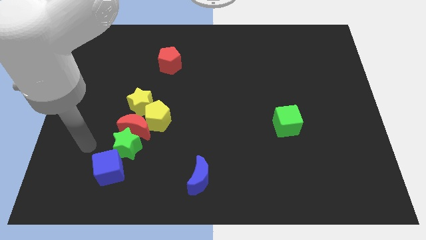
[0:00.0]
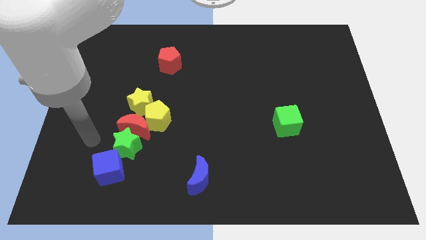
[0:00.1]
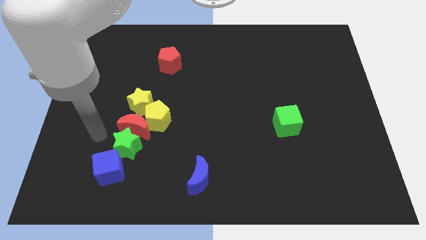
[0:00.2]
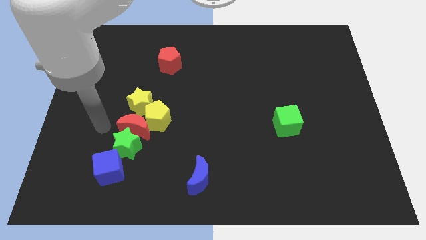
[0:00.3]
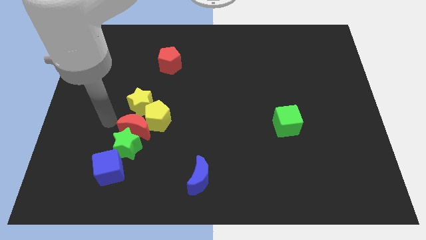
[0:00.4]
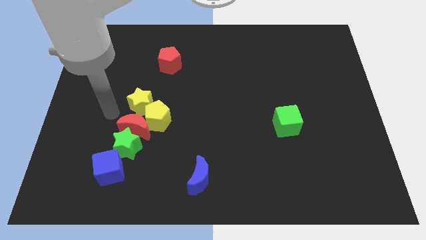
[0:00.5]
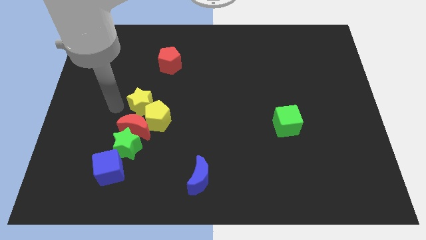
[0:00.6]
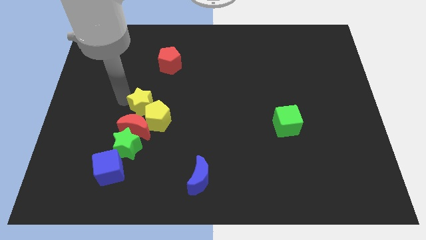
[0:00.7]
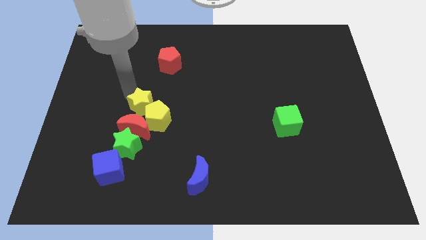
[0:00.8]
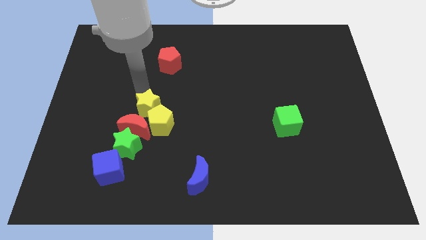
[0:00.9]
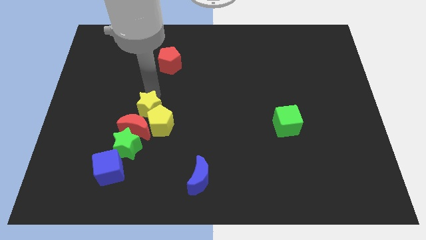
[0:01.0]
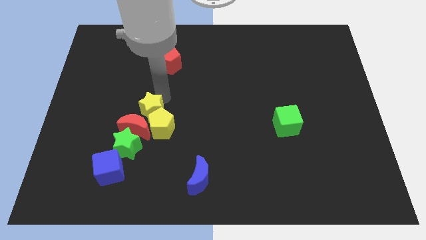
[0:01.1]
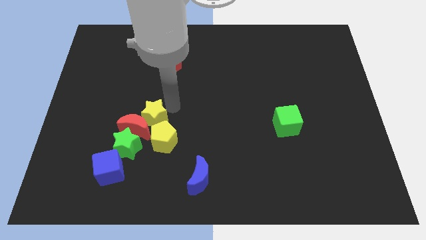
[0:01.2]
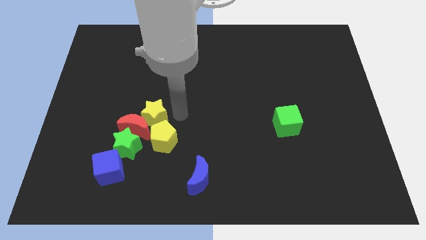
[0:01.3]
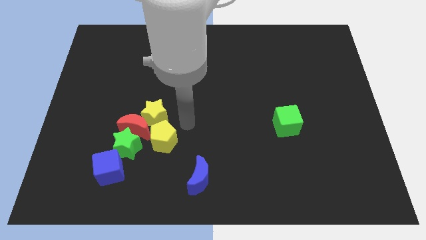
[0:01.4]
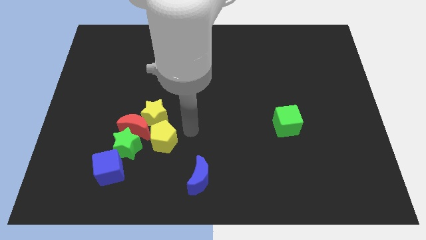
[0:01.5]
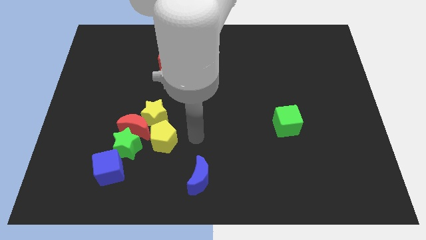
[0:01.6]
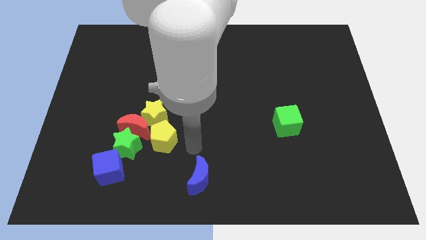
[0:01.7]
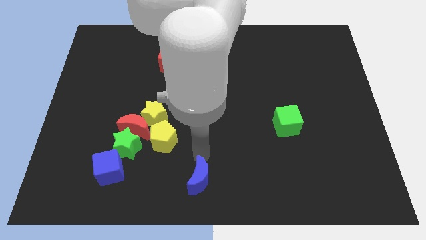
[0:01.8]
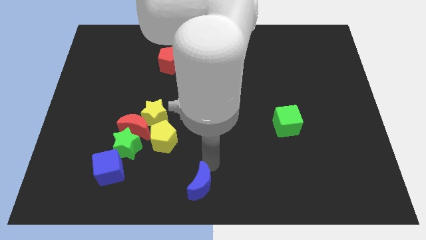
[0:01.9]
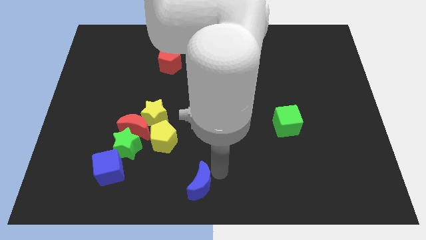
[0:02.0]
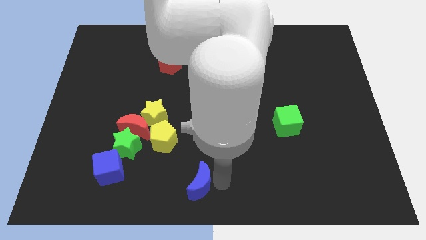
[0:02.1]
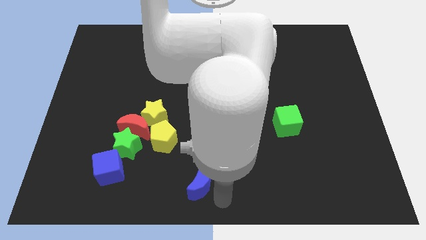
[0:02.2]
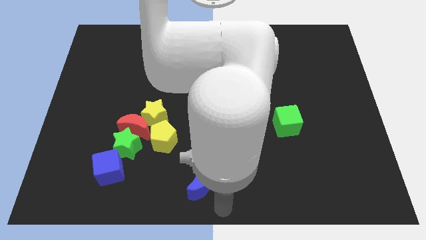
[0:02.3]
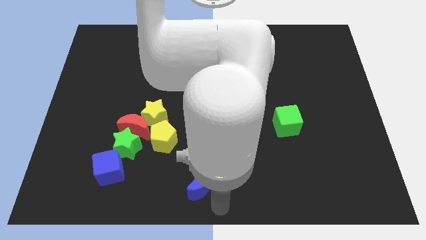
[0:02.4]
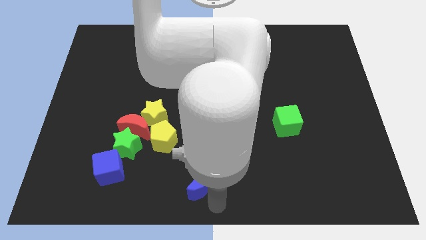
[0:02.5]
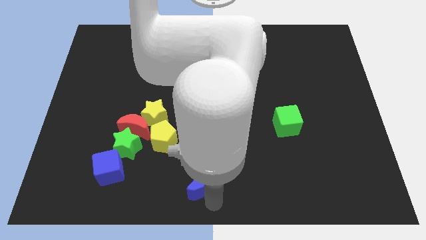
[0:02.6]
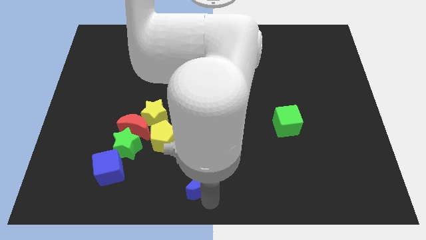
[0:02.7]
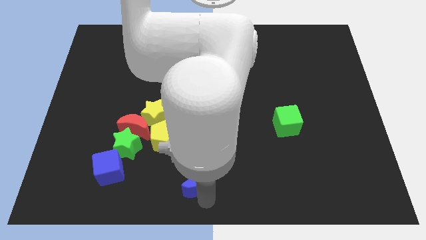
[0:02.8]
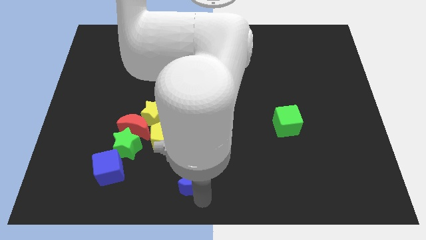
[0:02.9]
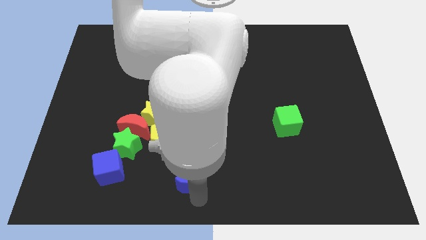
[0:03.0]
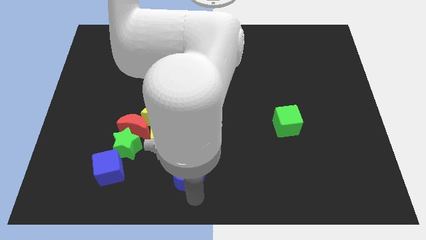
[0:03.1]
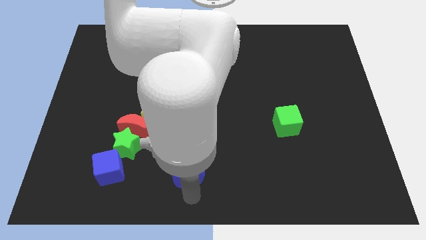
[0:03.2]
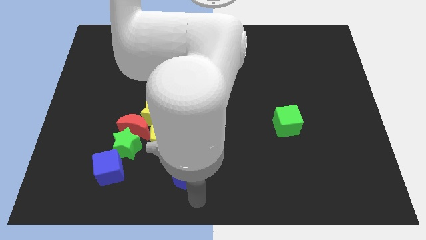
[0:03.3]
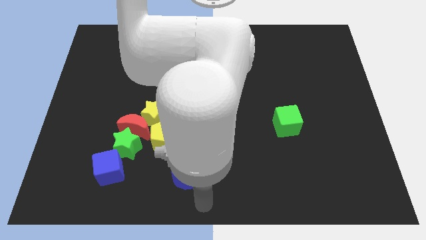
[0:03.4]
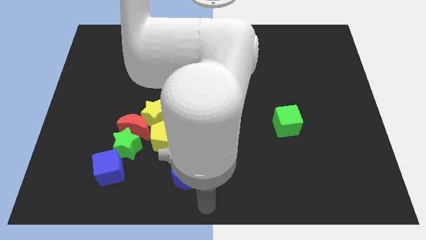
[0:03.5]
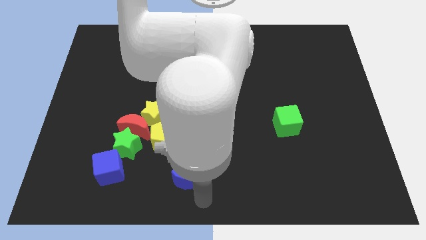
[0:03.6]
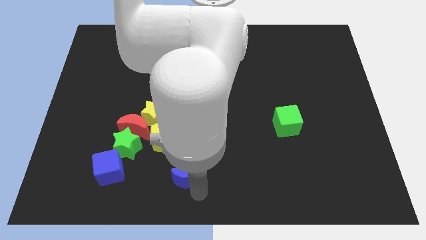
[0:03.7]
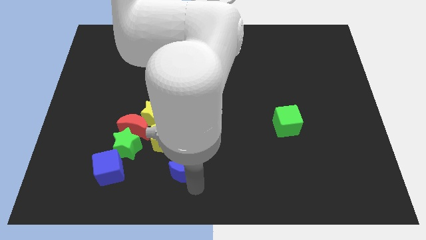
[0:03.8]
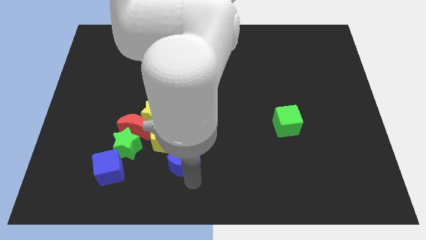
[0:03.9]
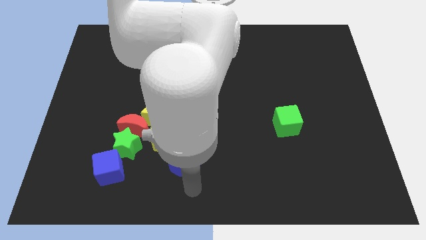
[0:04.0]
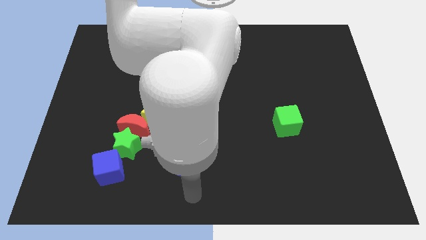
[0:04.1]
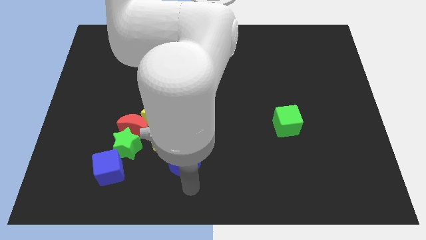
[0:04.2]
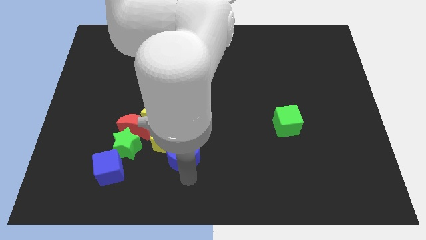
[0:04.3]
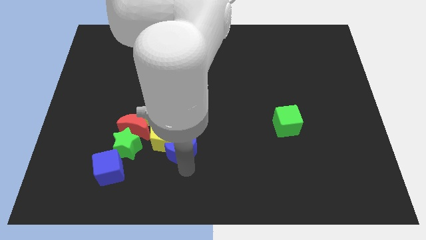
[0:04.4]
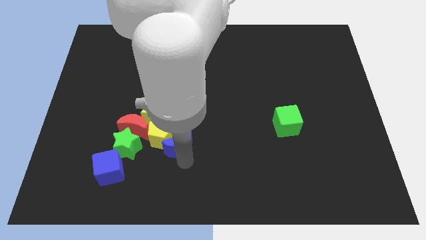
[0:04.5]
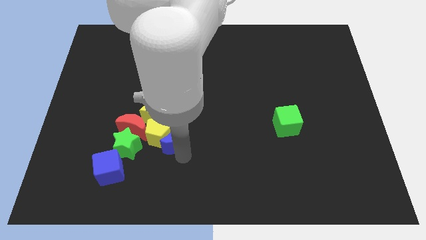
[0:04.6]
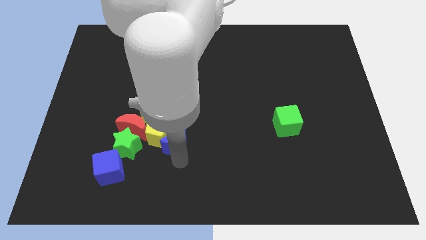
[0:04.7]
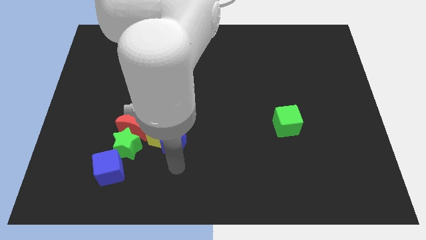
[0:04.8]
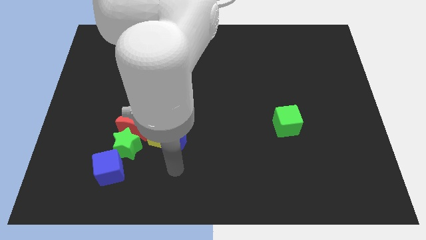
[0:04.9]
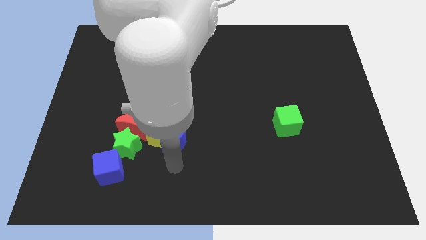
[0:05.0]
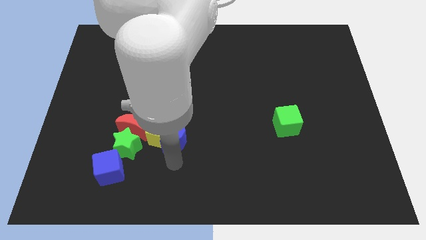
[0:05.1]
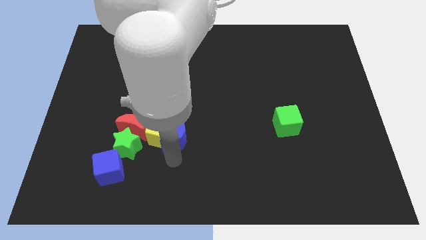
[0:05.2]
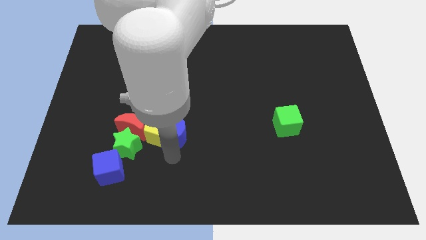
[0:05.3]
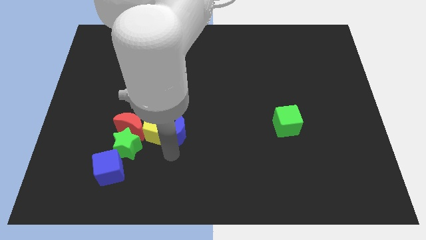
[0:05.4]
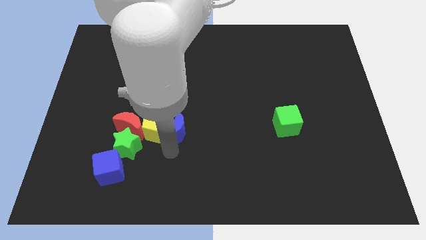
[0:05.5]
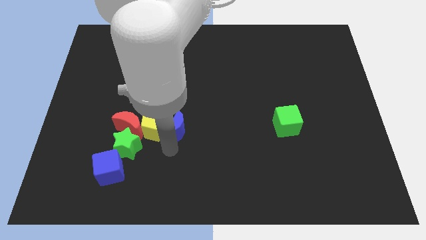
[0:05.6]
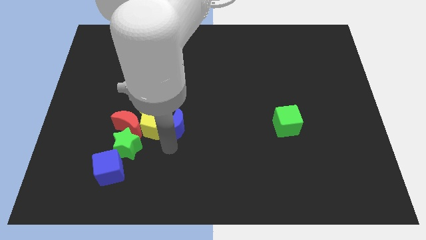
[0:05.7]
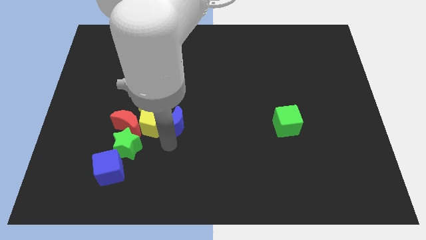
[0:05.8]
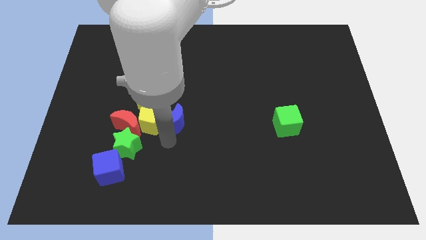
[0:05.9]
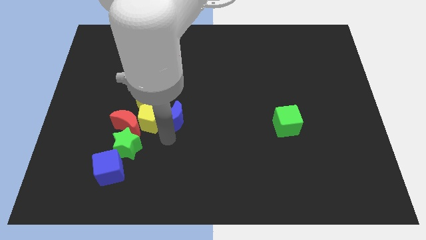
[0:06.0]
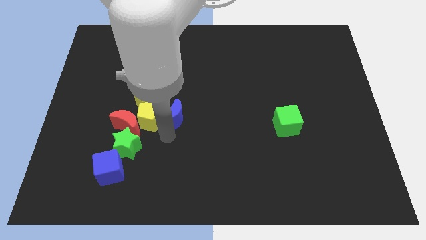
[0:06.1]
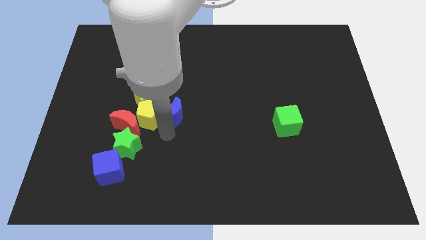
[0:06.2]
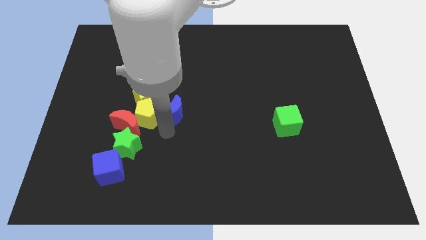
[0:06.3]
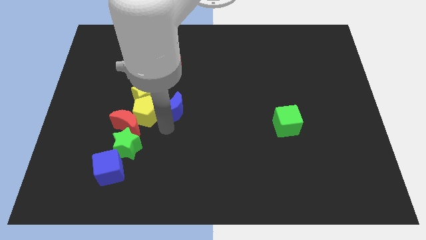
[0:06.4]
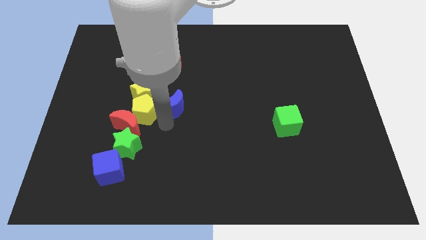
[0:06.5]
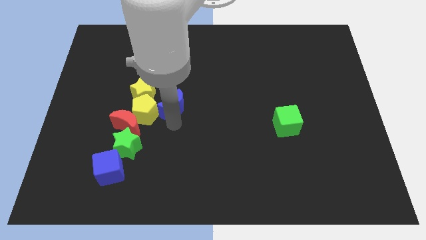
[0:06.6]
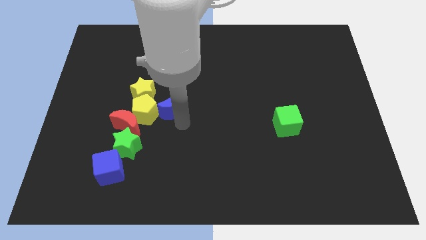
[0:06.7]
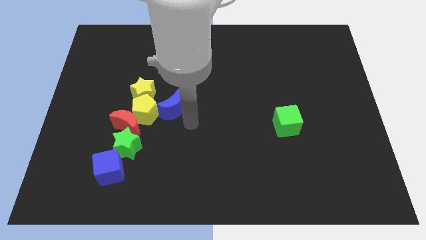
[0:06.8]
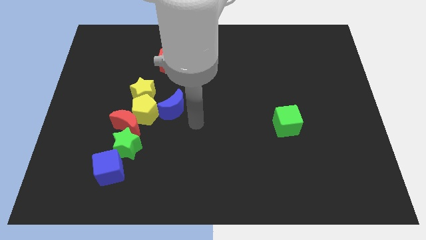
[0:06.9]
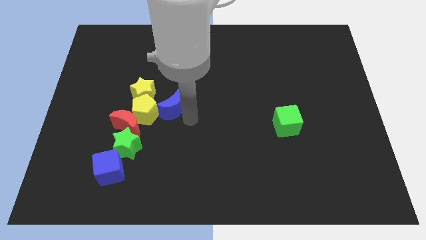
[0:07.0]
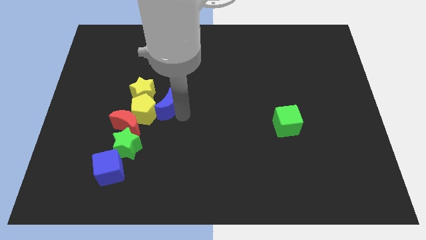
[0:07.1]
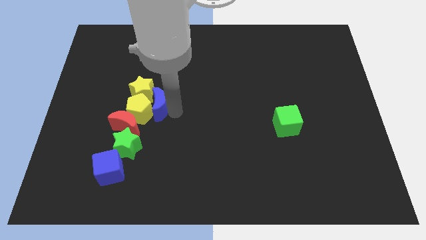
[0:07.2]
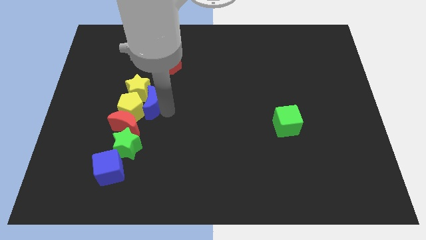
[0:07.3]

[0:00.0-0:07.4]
slide the blue moon upwards and to the left
